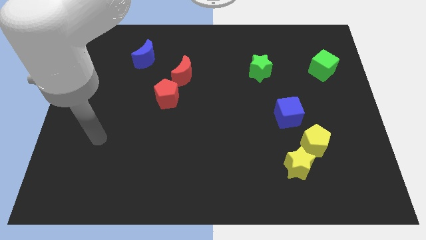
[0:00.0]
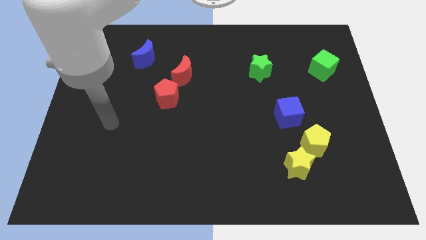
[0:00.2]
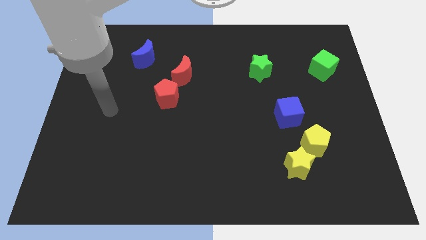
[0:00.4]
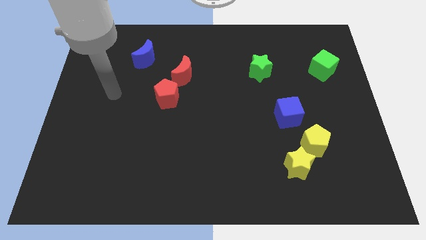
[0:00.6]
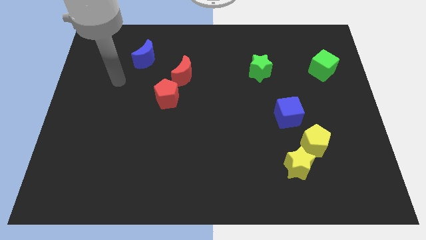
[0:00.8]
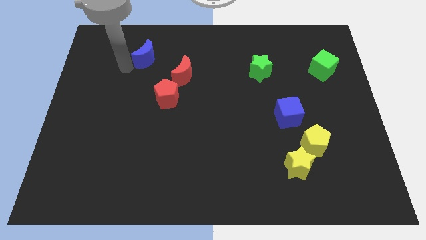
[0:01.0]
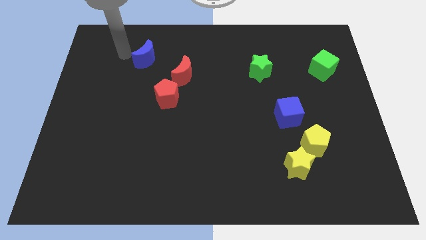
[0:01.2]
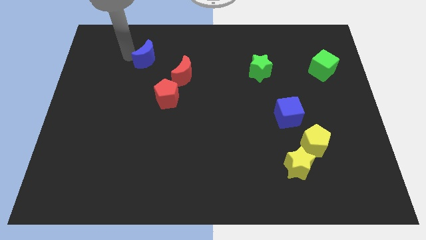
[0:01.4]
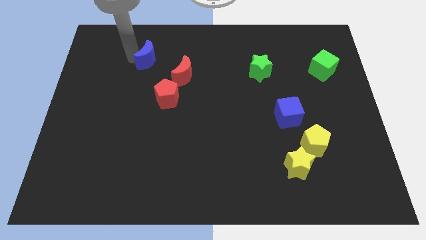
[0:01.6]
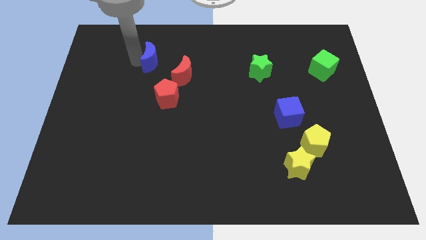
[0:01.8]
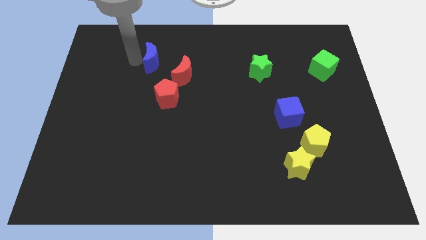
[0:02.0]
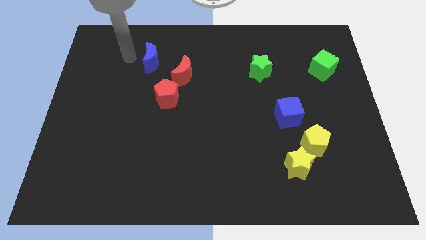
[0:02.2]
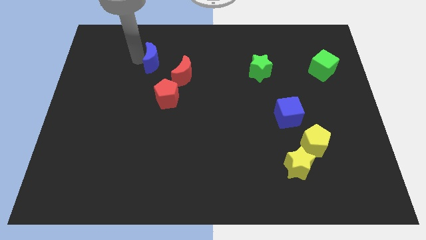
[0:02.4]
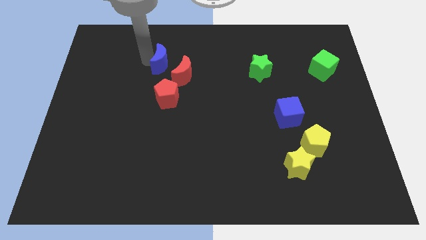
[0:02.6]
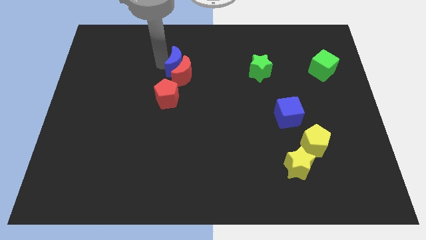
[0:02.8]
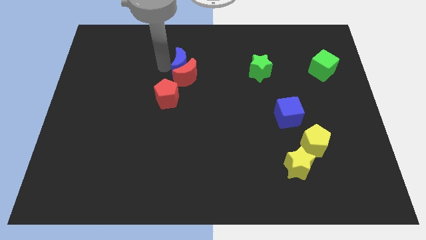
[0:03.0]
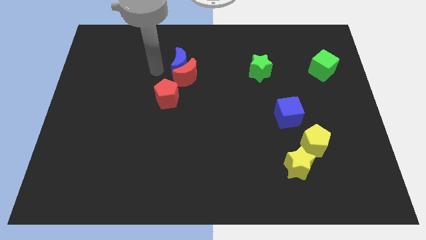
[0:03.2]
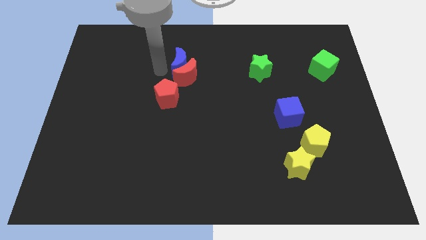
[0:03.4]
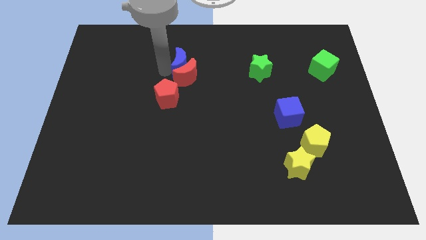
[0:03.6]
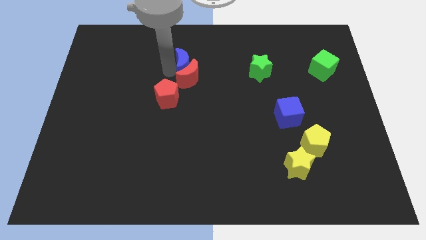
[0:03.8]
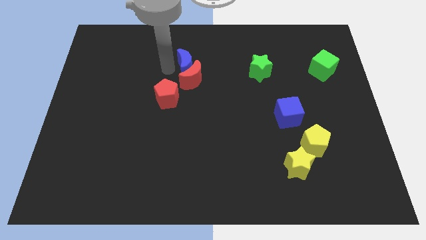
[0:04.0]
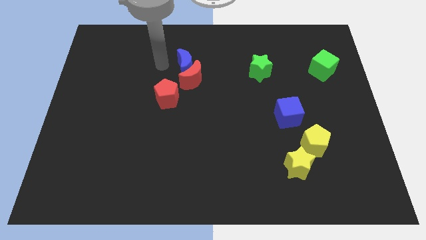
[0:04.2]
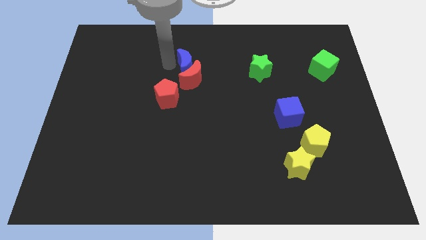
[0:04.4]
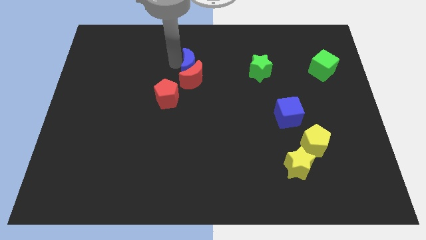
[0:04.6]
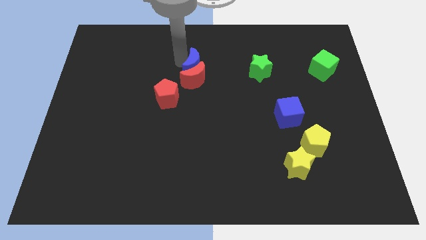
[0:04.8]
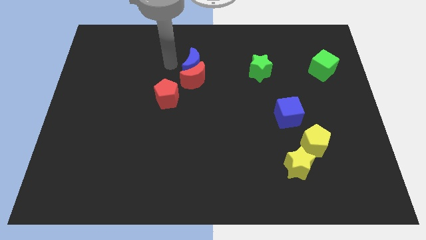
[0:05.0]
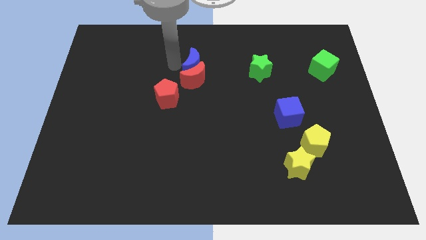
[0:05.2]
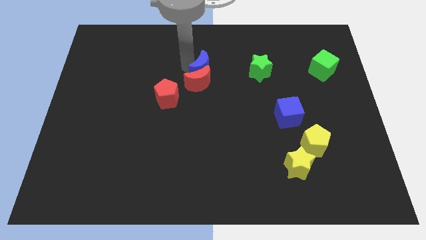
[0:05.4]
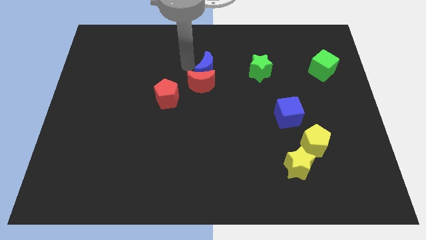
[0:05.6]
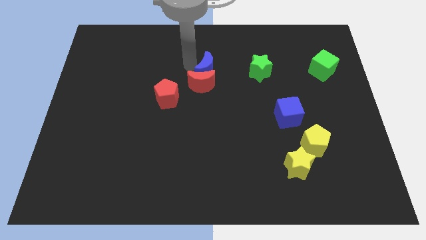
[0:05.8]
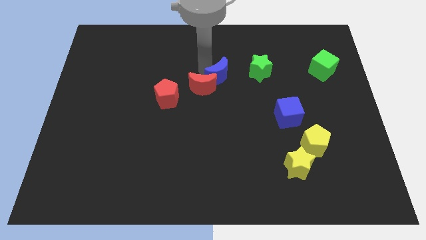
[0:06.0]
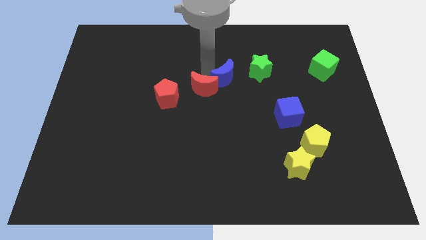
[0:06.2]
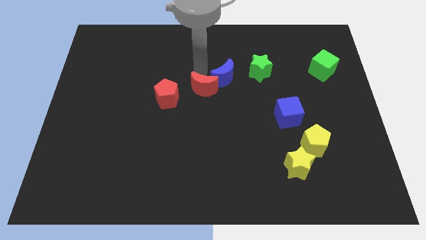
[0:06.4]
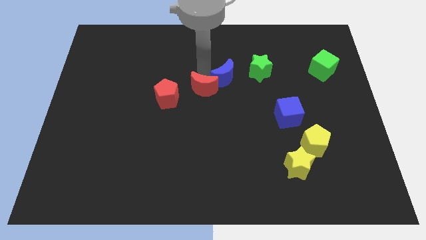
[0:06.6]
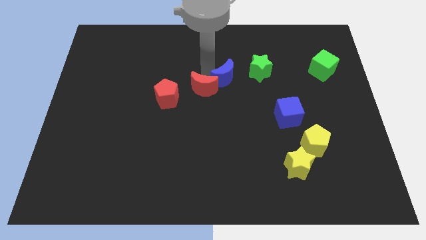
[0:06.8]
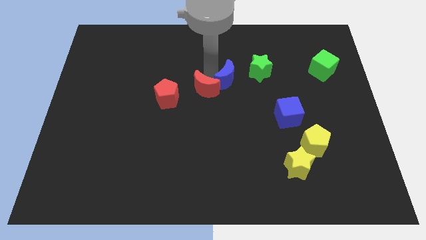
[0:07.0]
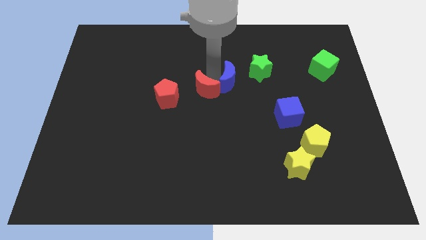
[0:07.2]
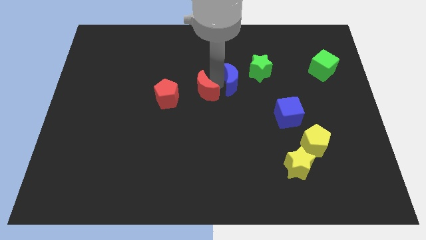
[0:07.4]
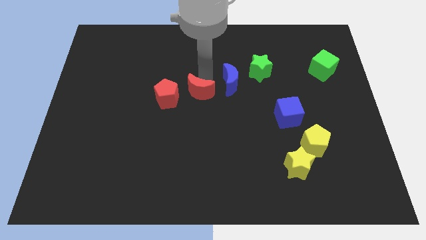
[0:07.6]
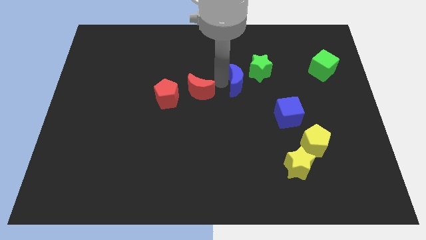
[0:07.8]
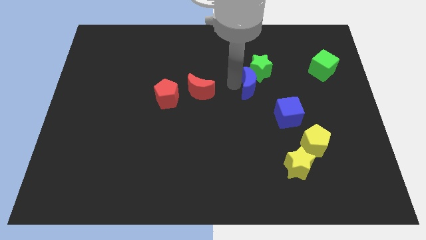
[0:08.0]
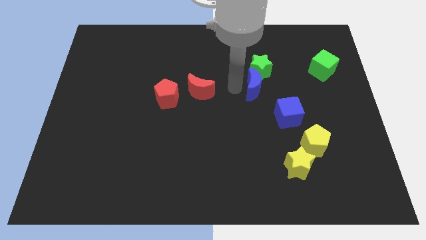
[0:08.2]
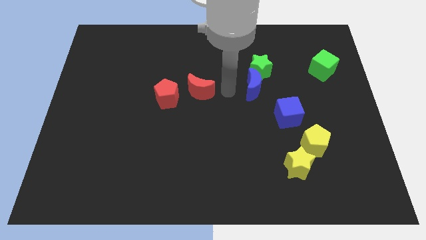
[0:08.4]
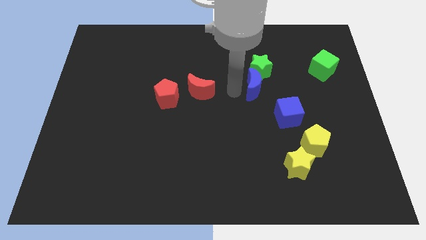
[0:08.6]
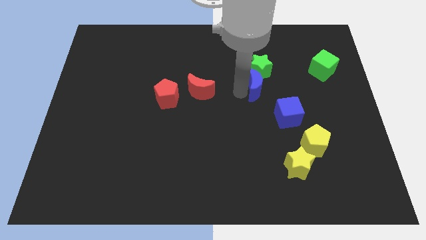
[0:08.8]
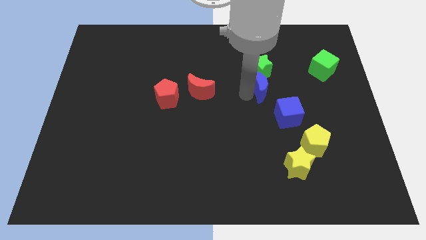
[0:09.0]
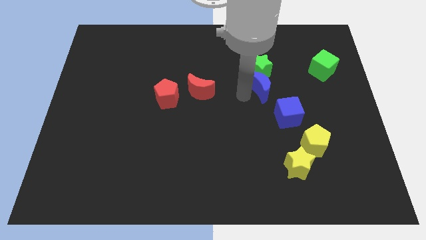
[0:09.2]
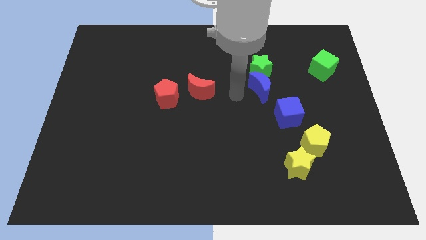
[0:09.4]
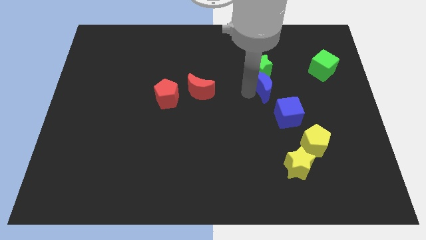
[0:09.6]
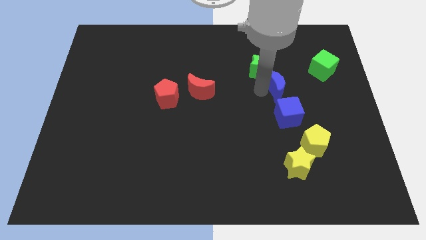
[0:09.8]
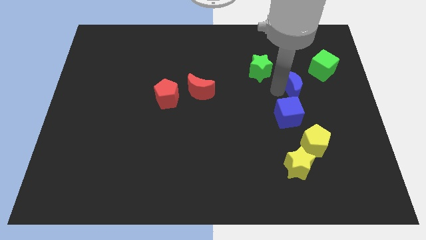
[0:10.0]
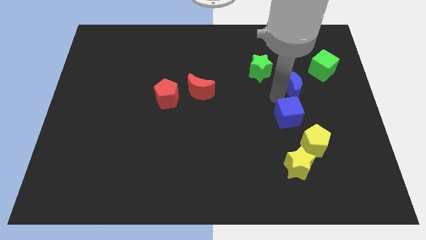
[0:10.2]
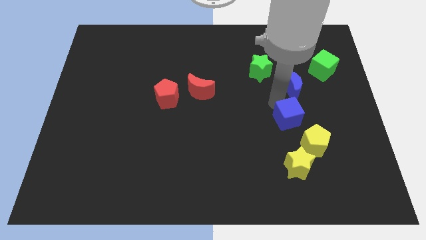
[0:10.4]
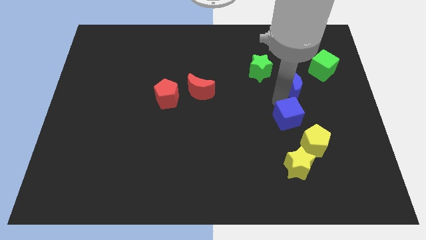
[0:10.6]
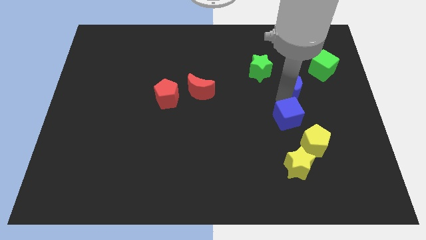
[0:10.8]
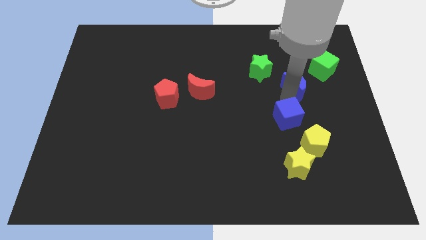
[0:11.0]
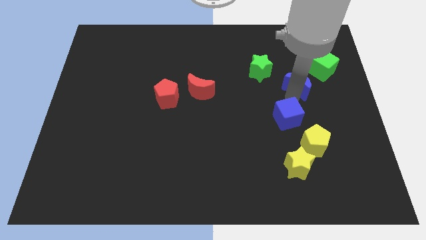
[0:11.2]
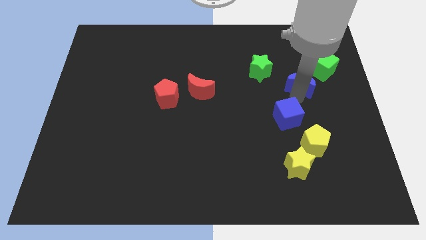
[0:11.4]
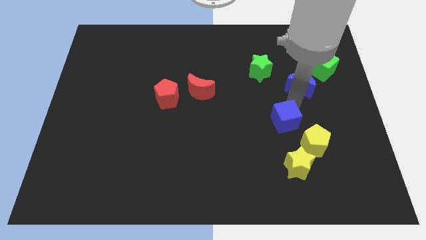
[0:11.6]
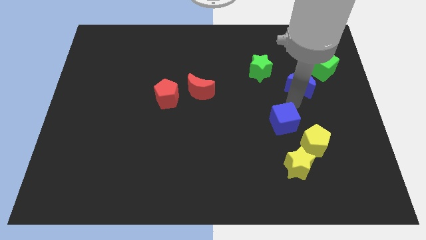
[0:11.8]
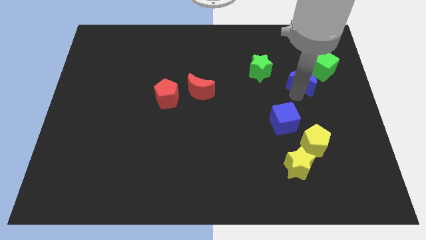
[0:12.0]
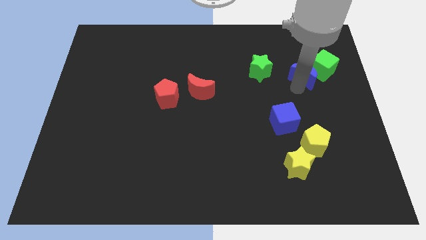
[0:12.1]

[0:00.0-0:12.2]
push the blue moon to the green cube

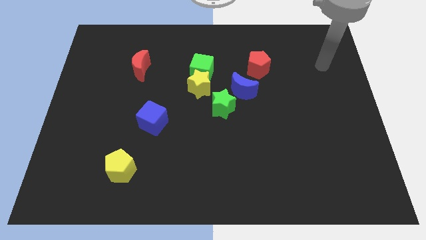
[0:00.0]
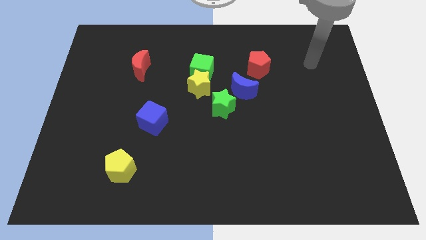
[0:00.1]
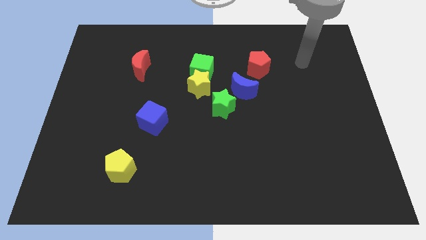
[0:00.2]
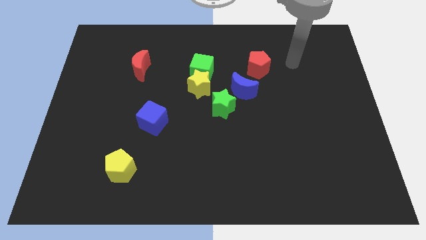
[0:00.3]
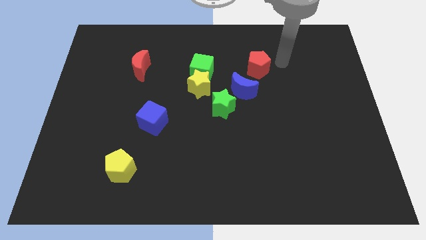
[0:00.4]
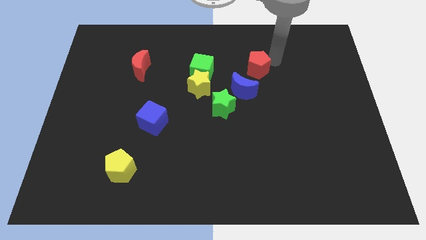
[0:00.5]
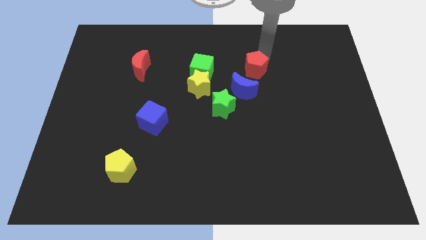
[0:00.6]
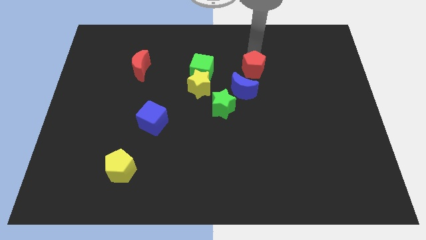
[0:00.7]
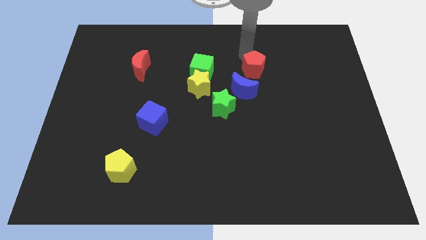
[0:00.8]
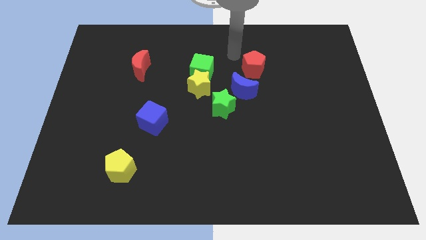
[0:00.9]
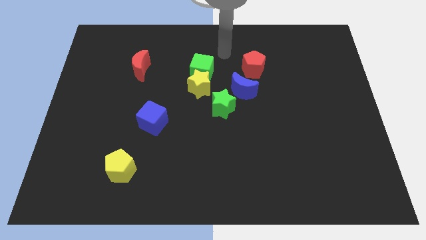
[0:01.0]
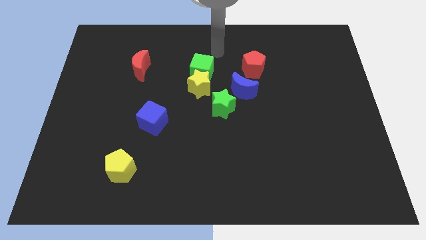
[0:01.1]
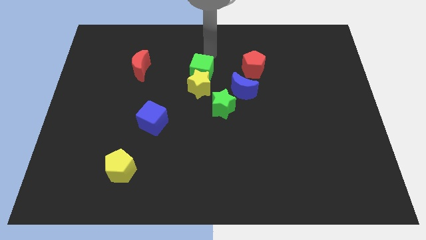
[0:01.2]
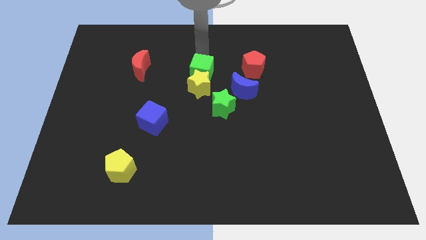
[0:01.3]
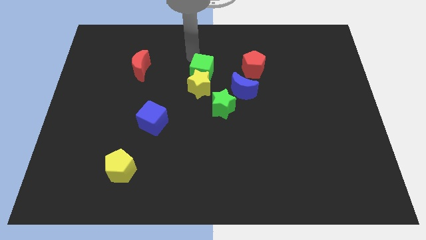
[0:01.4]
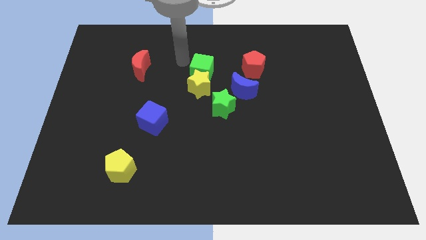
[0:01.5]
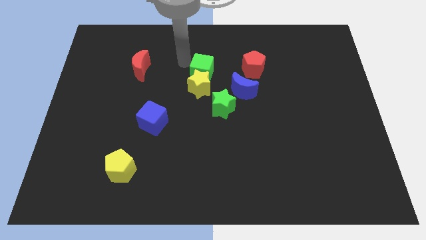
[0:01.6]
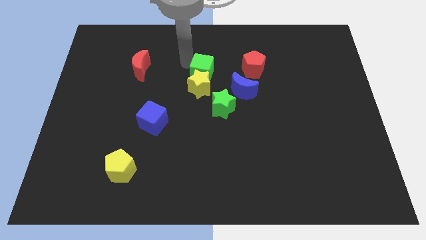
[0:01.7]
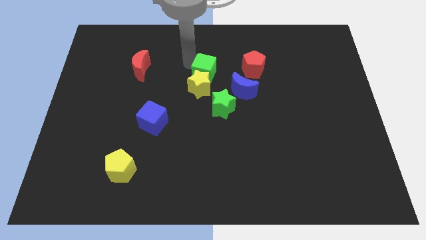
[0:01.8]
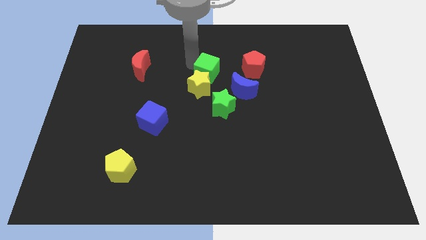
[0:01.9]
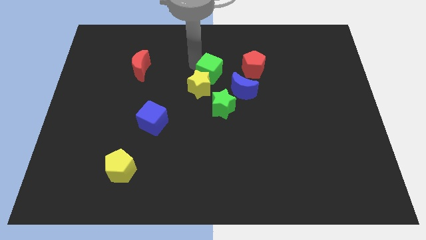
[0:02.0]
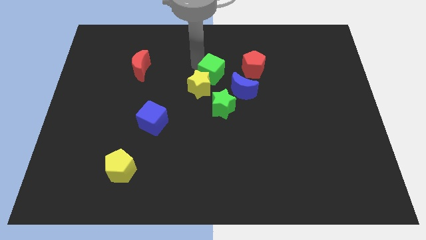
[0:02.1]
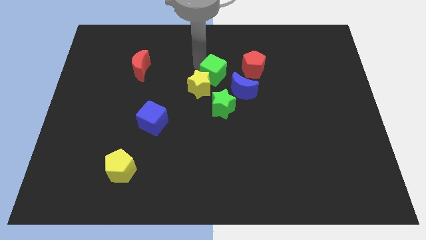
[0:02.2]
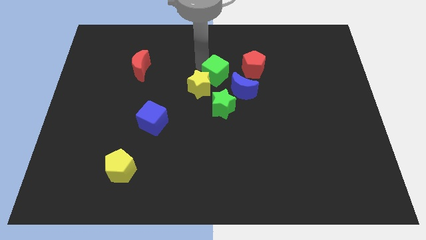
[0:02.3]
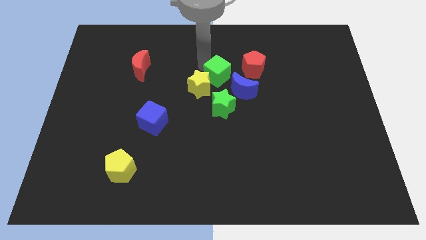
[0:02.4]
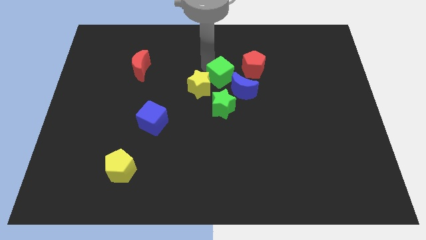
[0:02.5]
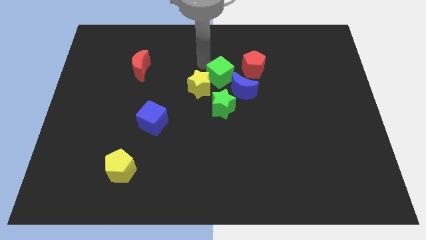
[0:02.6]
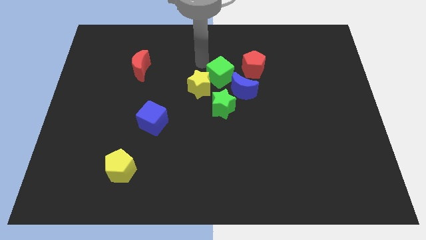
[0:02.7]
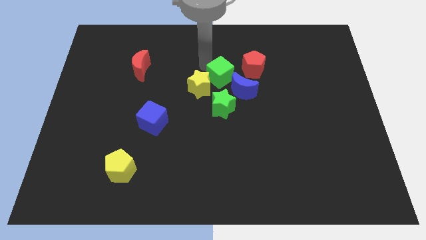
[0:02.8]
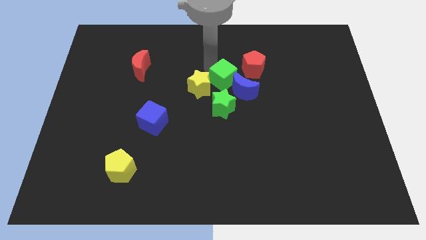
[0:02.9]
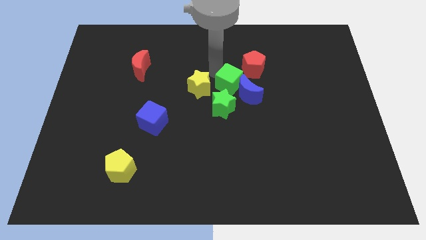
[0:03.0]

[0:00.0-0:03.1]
move the green cube towards the blue moon
